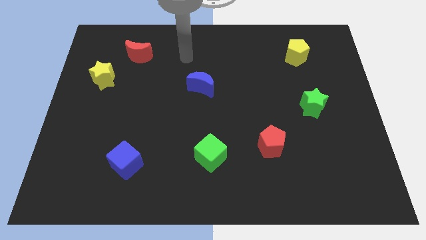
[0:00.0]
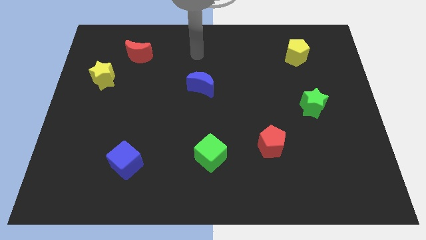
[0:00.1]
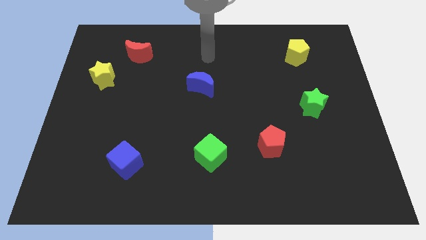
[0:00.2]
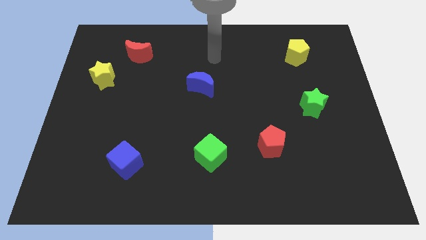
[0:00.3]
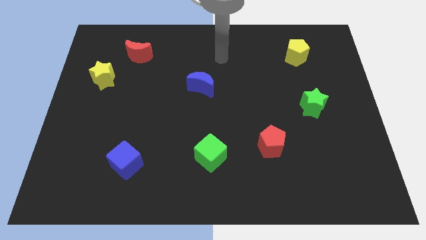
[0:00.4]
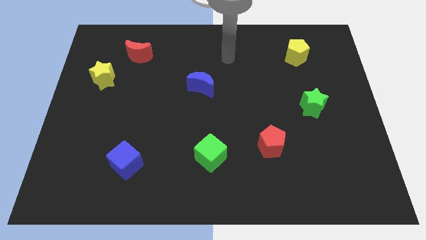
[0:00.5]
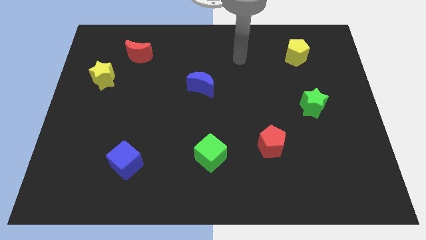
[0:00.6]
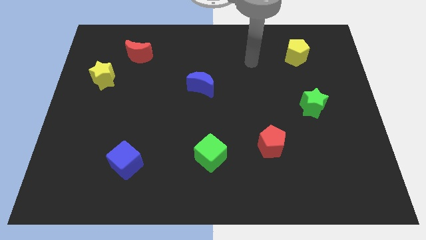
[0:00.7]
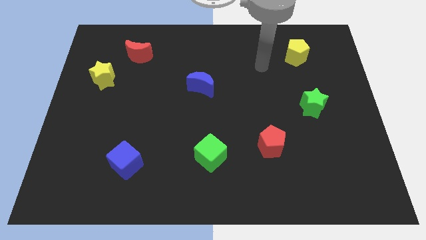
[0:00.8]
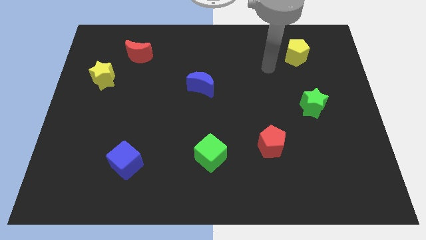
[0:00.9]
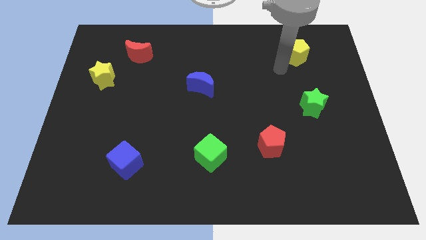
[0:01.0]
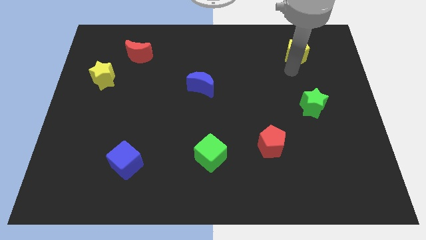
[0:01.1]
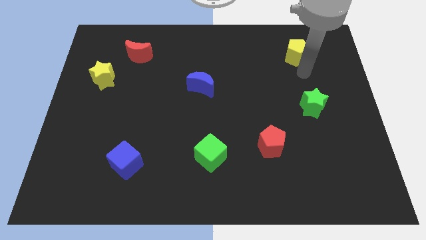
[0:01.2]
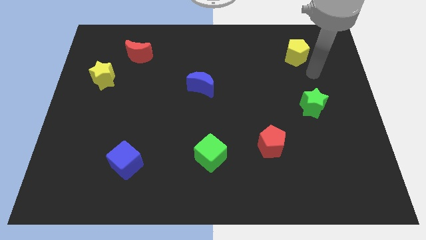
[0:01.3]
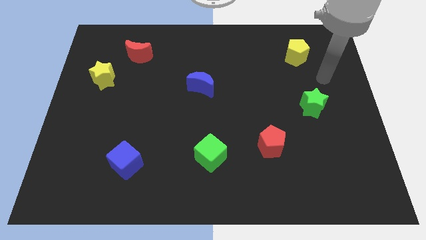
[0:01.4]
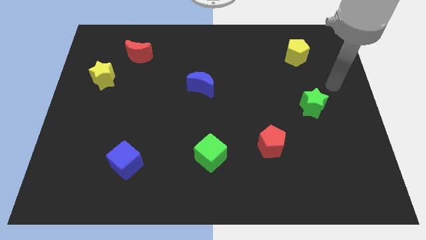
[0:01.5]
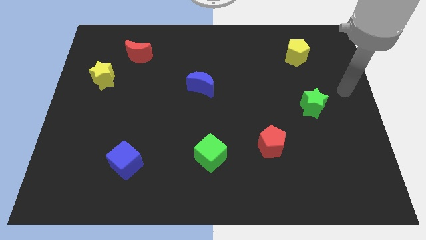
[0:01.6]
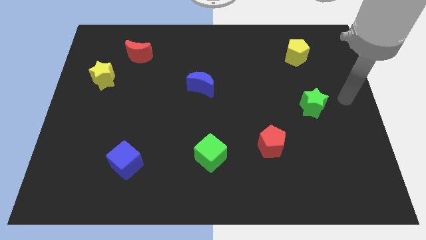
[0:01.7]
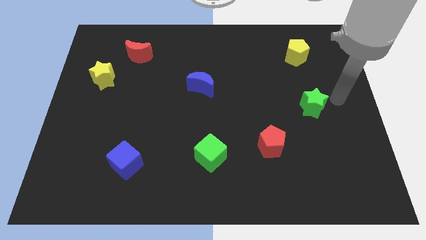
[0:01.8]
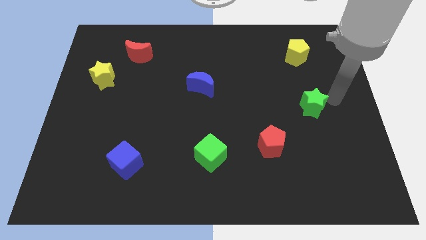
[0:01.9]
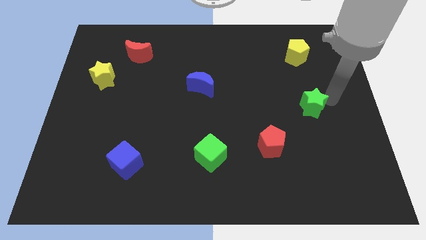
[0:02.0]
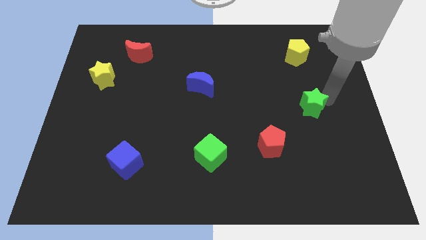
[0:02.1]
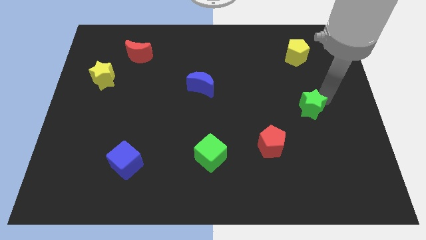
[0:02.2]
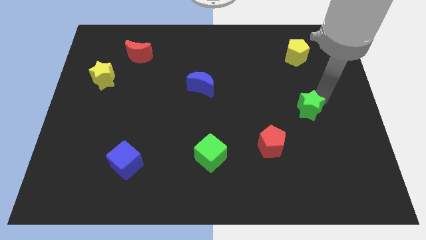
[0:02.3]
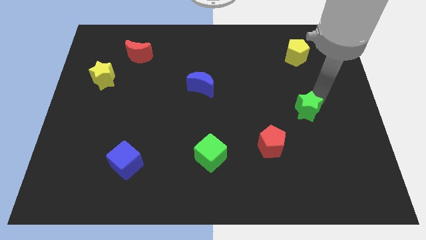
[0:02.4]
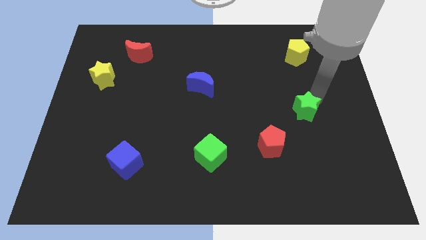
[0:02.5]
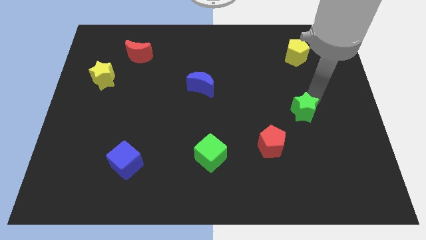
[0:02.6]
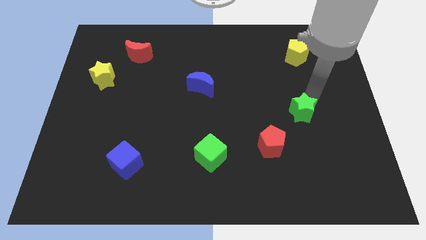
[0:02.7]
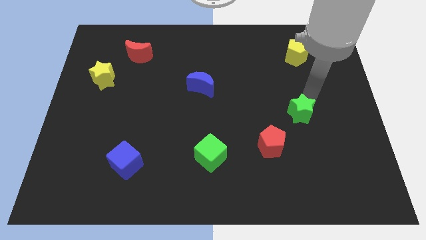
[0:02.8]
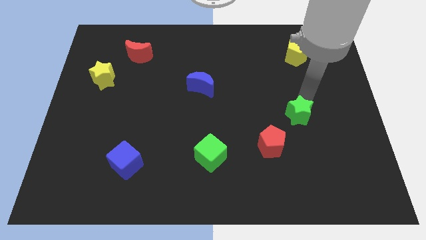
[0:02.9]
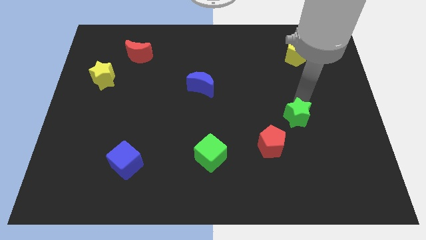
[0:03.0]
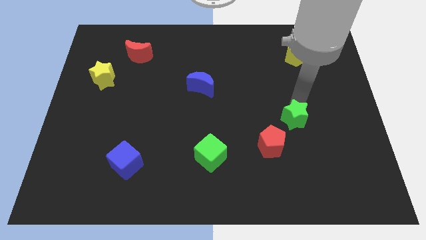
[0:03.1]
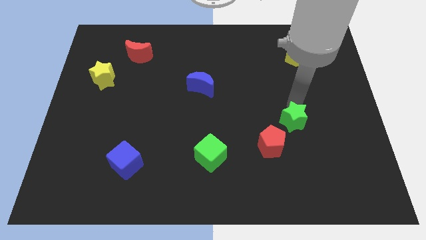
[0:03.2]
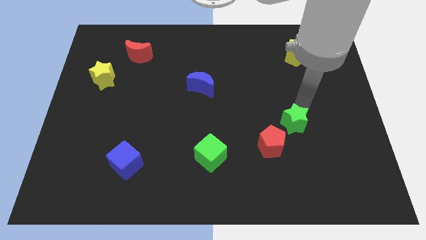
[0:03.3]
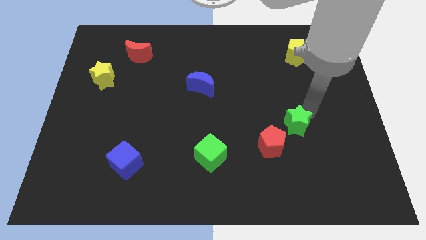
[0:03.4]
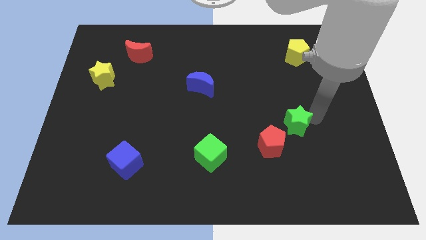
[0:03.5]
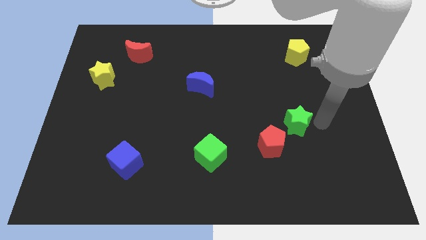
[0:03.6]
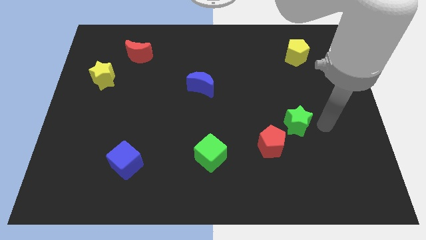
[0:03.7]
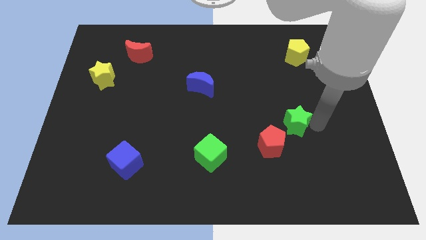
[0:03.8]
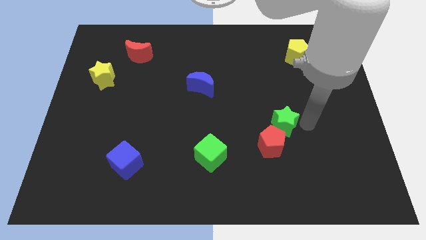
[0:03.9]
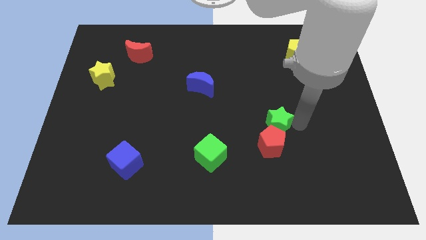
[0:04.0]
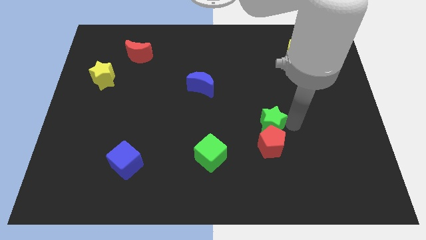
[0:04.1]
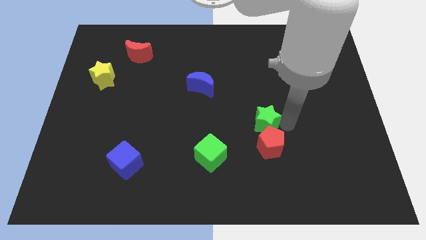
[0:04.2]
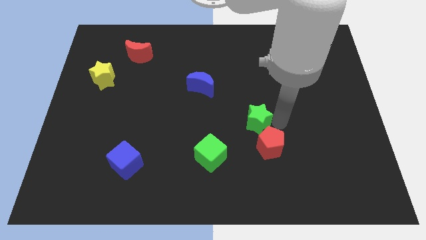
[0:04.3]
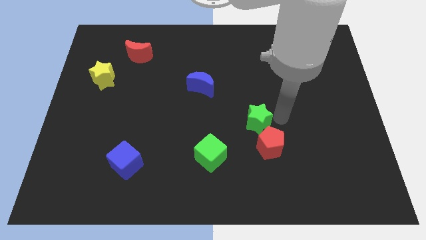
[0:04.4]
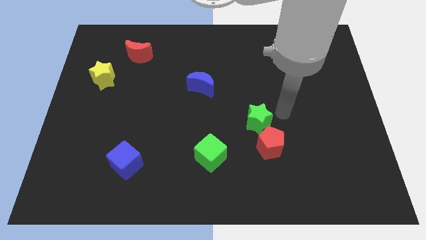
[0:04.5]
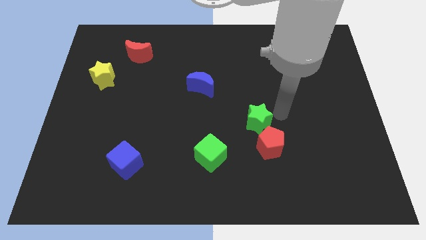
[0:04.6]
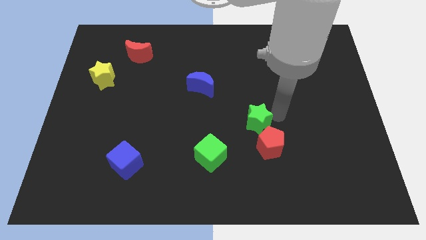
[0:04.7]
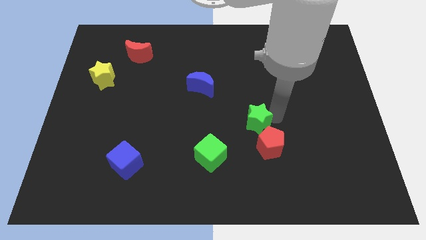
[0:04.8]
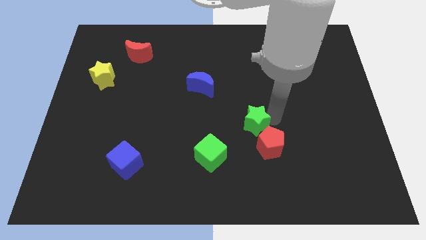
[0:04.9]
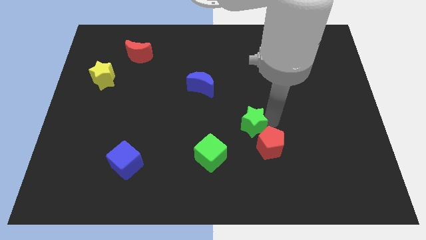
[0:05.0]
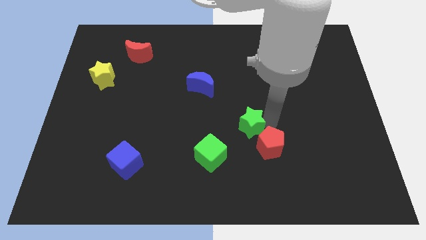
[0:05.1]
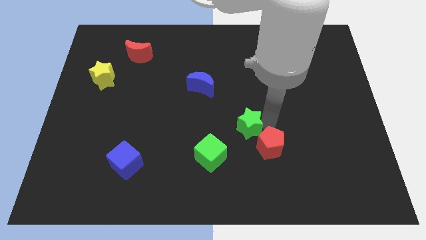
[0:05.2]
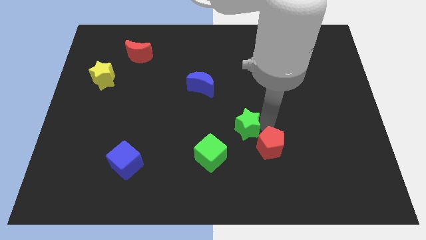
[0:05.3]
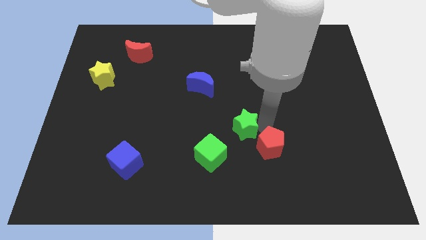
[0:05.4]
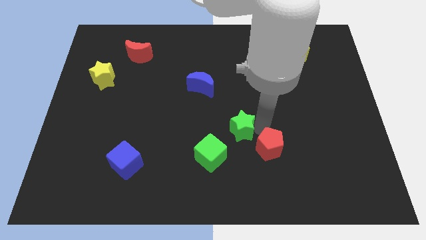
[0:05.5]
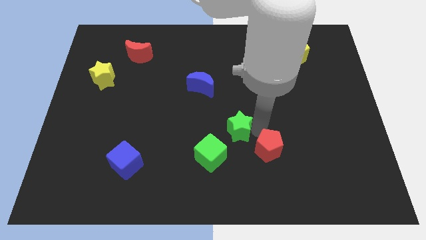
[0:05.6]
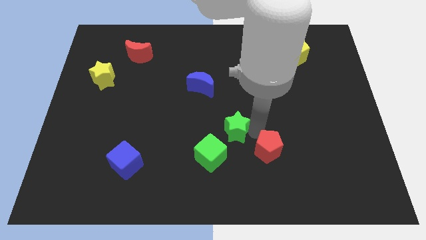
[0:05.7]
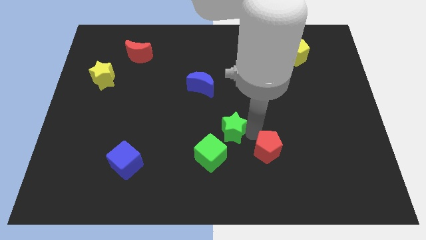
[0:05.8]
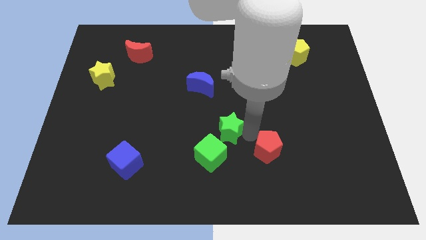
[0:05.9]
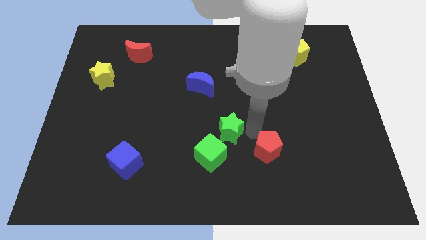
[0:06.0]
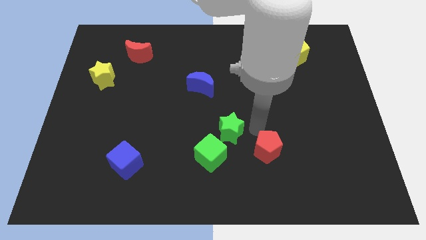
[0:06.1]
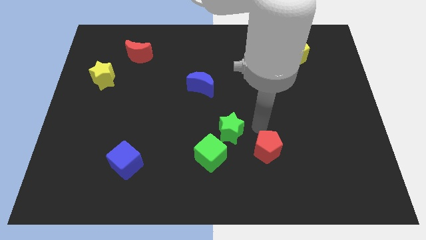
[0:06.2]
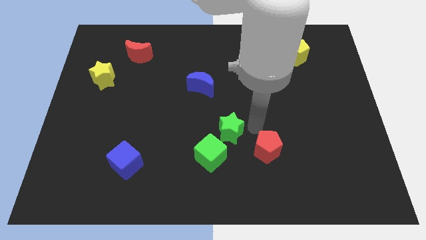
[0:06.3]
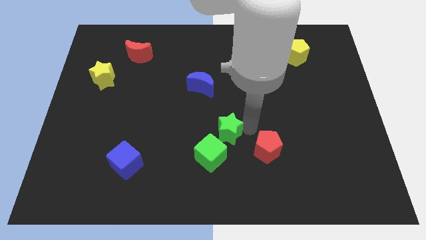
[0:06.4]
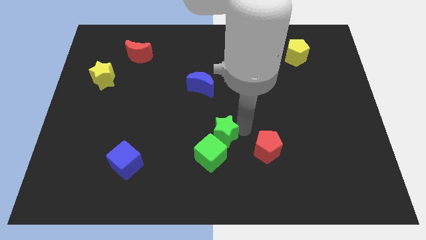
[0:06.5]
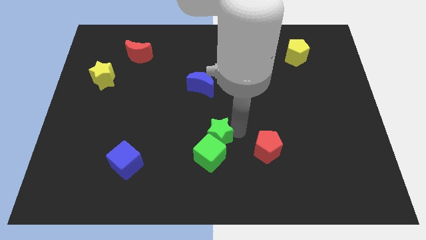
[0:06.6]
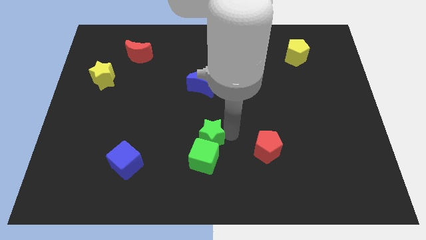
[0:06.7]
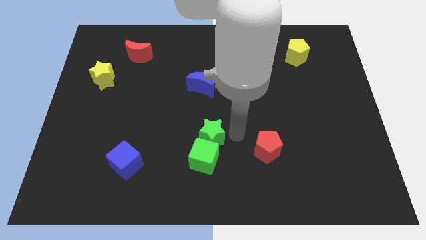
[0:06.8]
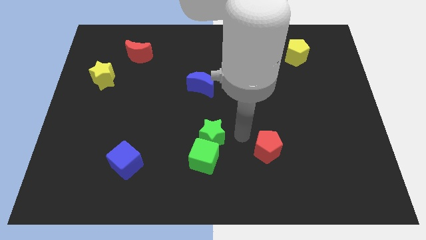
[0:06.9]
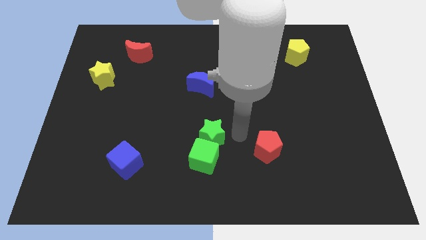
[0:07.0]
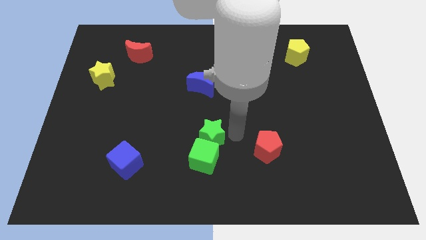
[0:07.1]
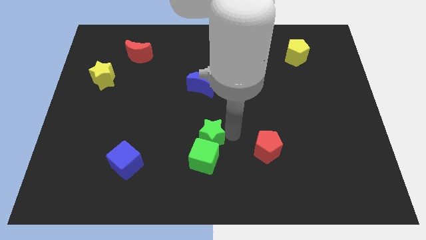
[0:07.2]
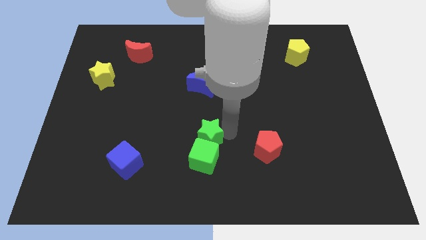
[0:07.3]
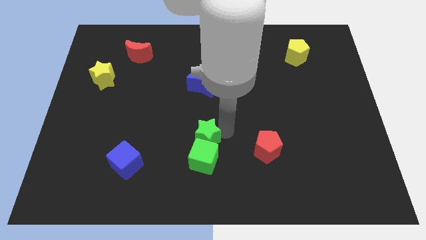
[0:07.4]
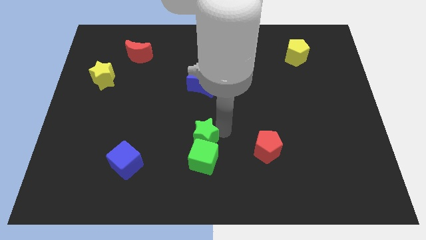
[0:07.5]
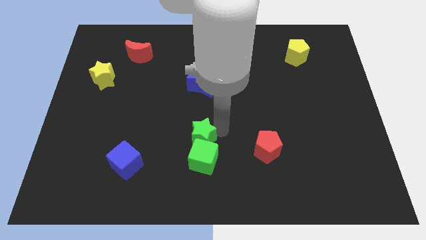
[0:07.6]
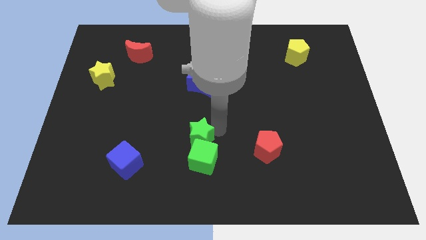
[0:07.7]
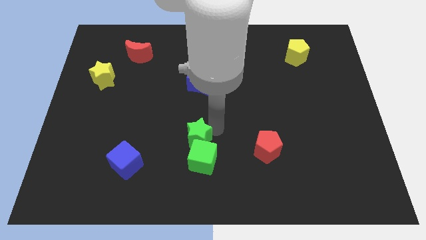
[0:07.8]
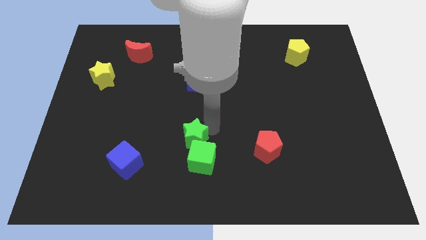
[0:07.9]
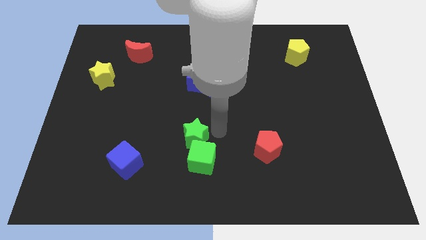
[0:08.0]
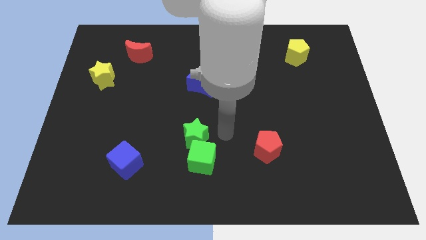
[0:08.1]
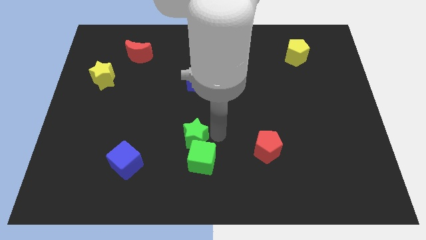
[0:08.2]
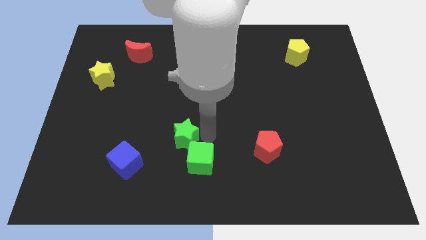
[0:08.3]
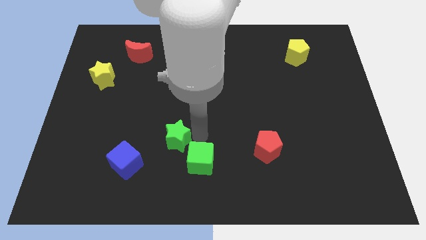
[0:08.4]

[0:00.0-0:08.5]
push the green star to the top right side of the blue cube
